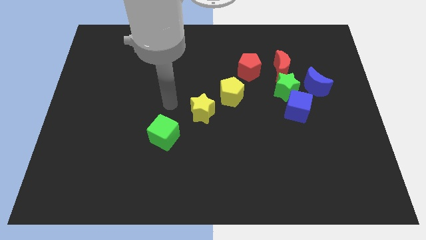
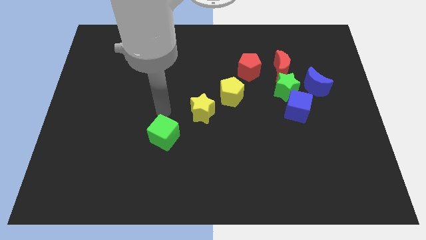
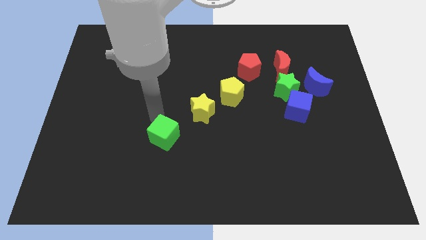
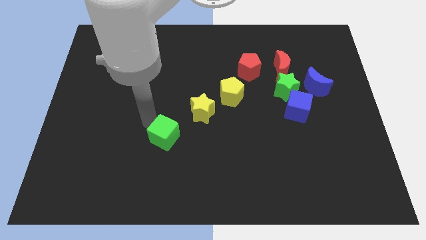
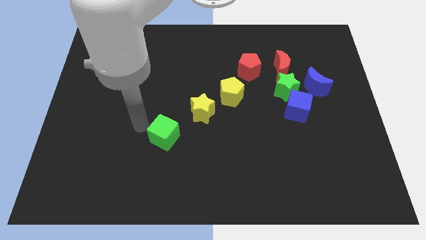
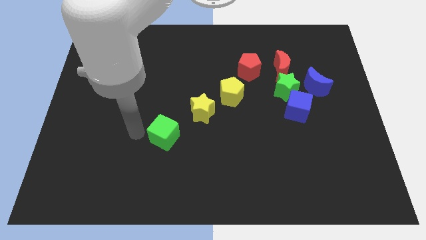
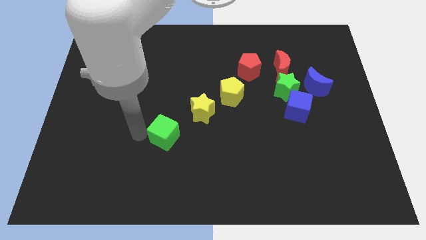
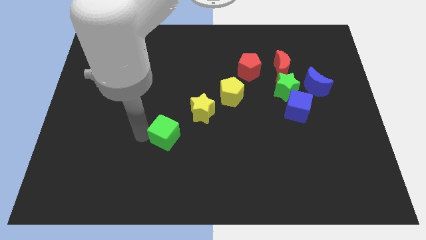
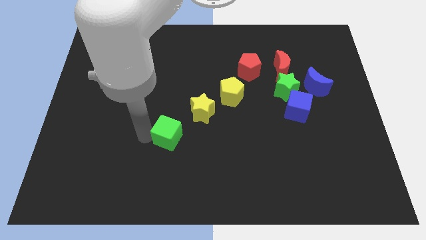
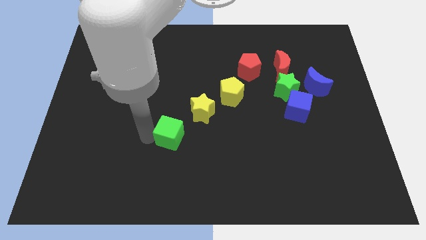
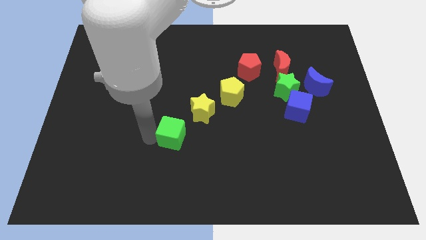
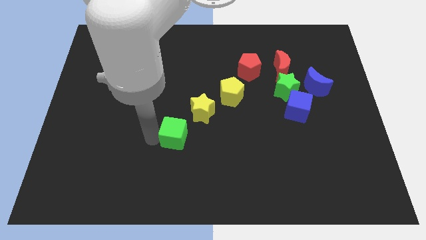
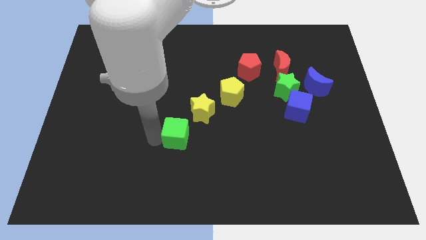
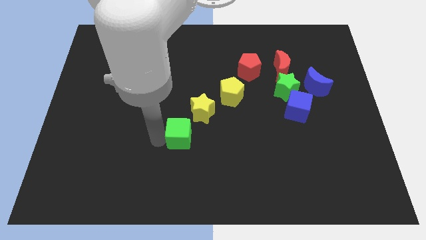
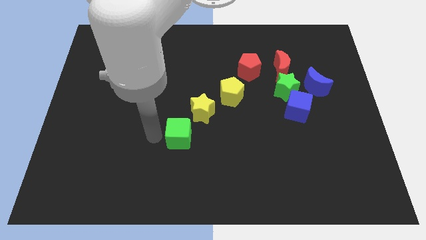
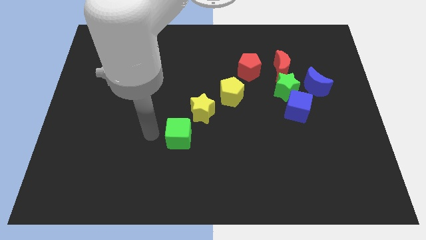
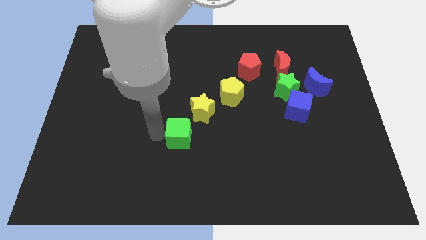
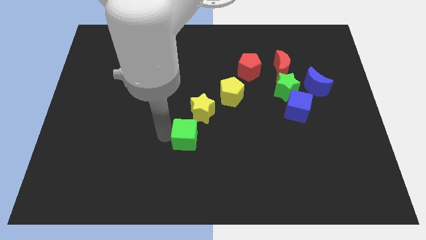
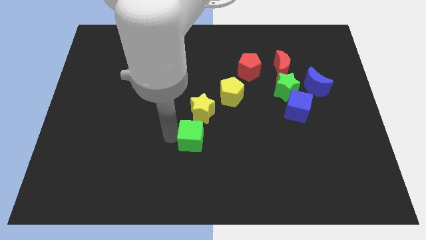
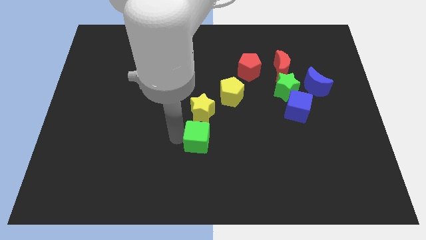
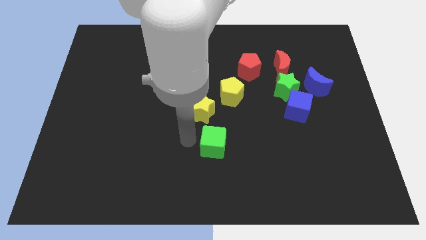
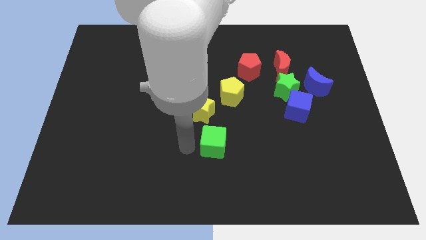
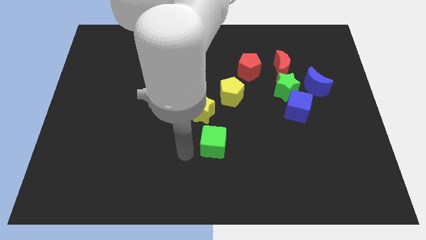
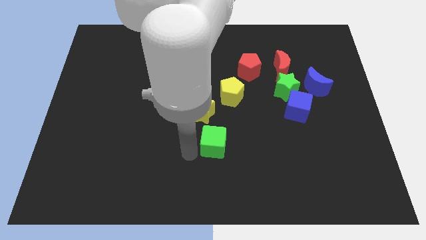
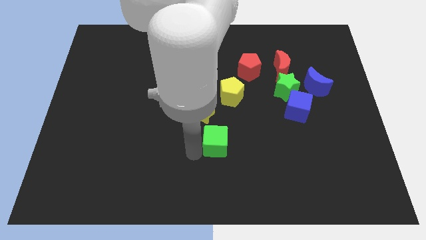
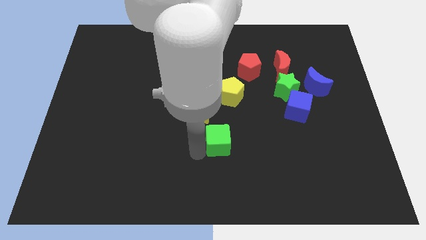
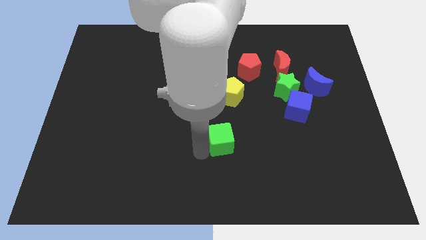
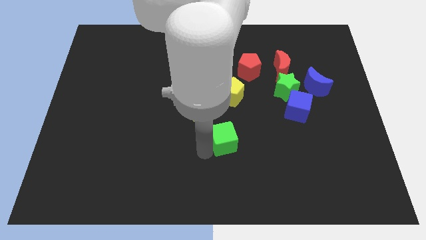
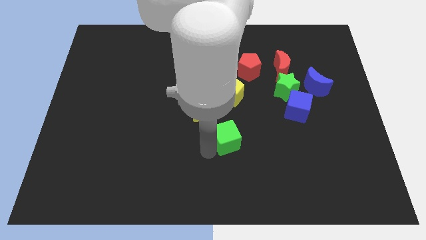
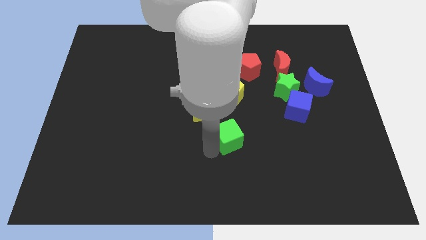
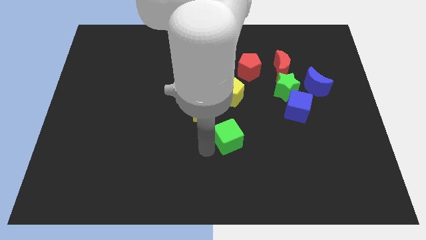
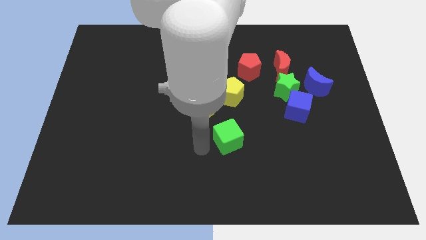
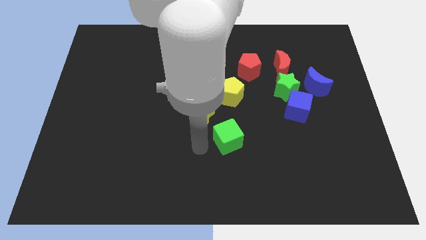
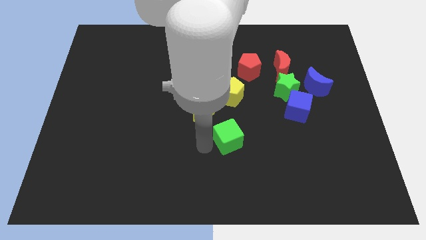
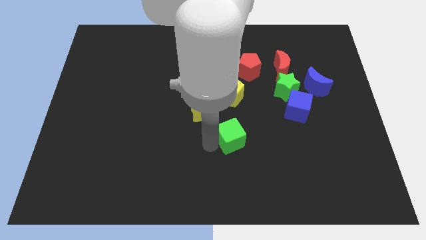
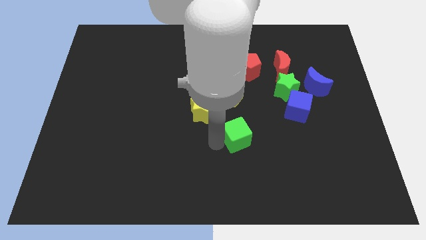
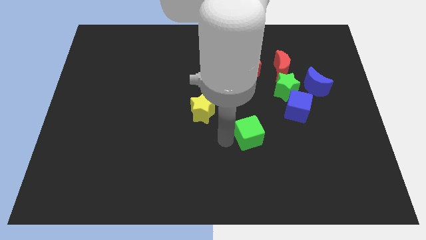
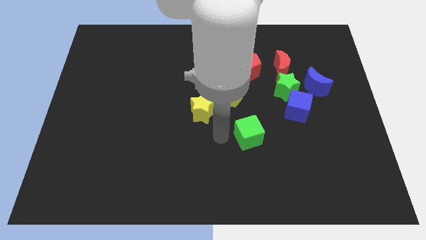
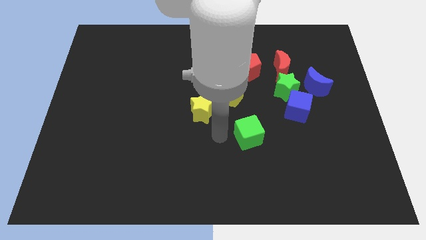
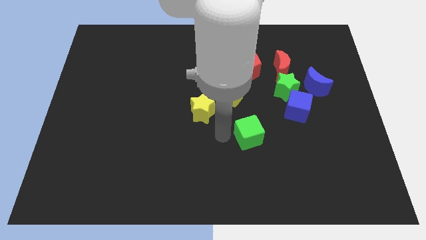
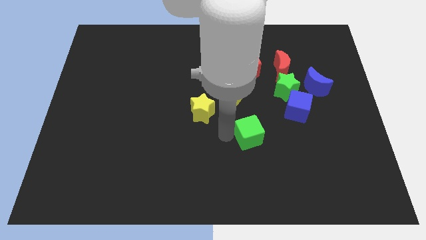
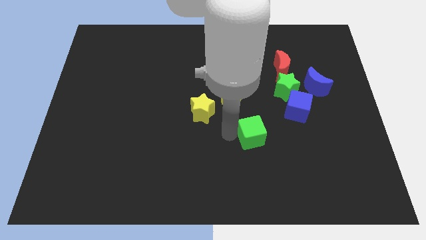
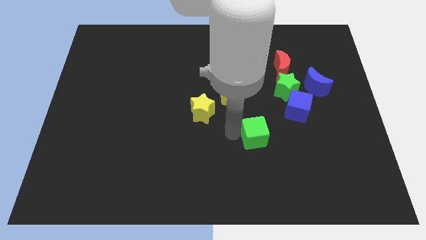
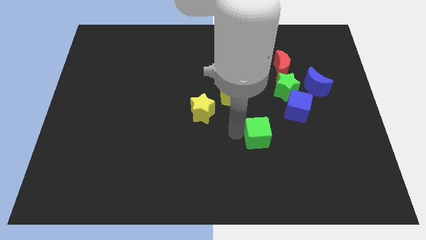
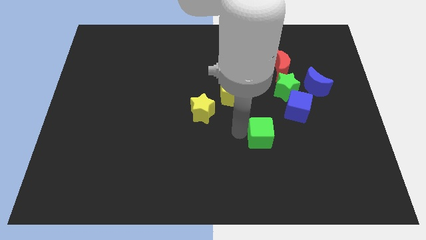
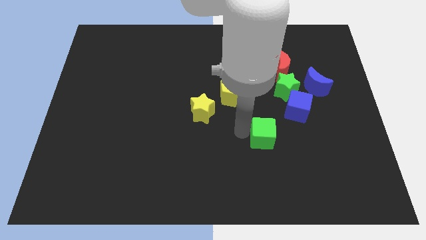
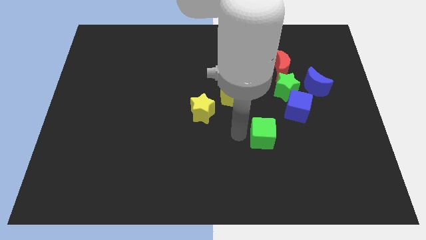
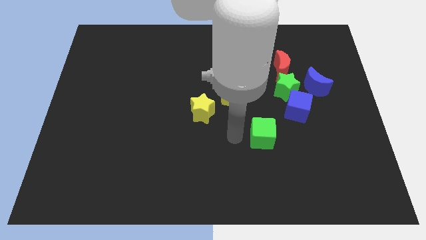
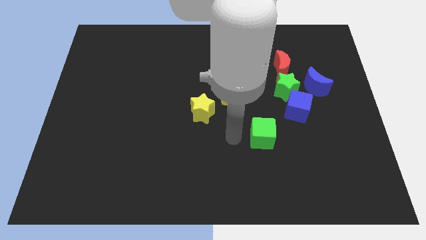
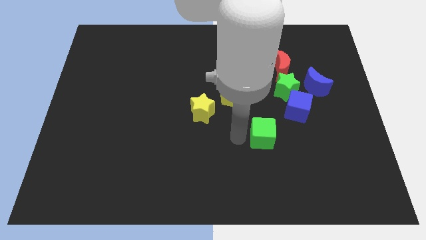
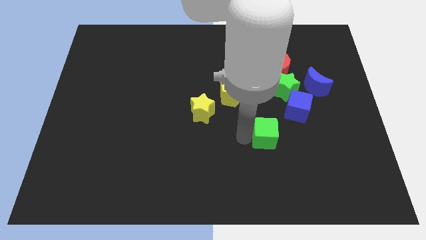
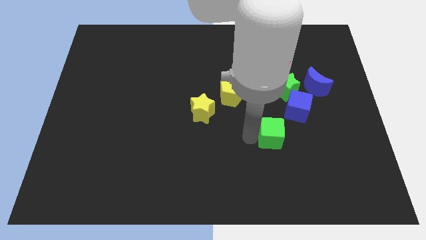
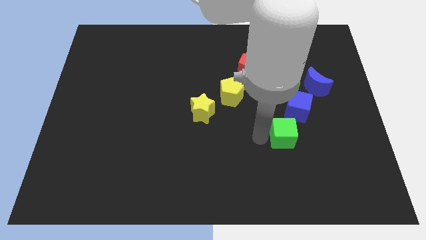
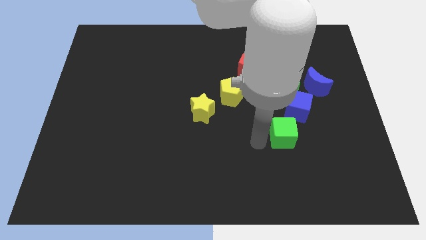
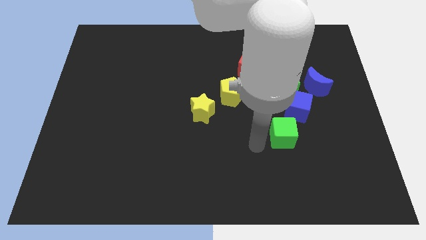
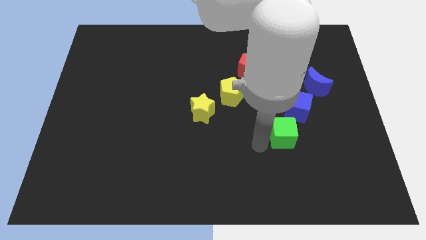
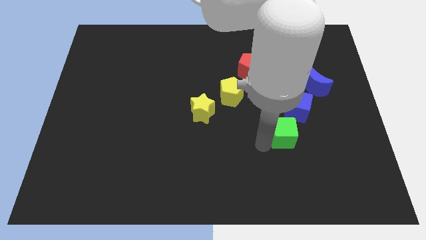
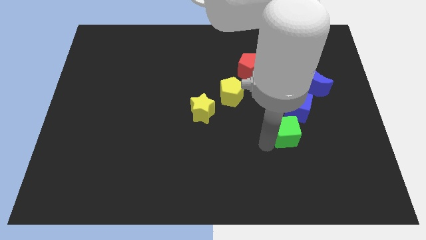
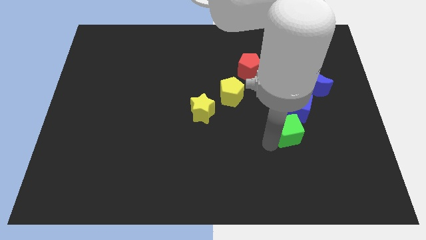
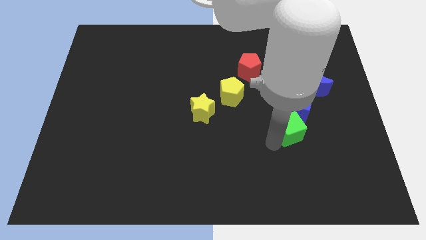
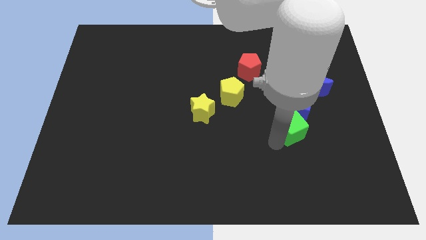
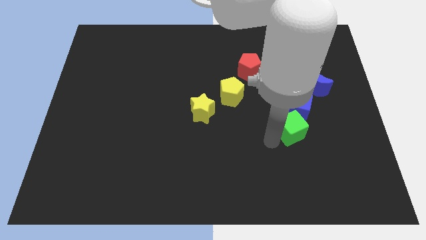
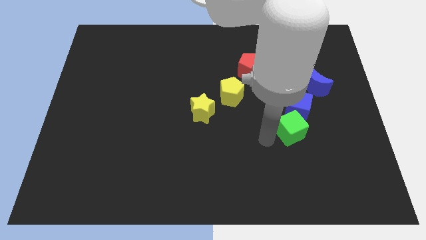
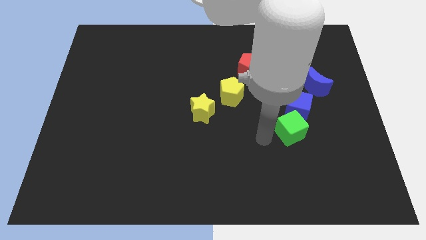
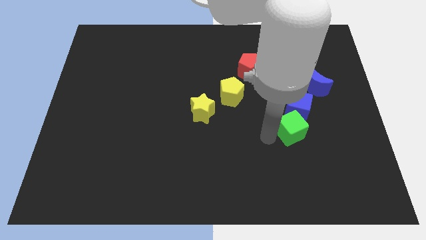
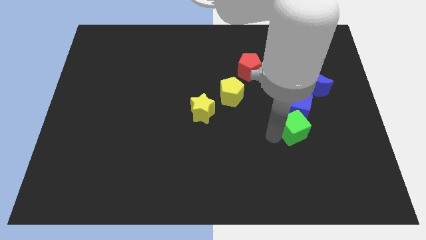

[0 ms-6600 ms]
move the green cube close to the blue cube

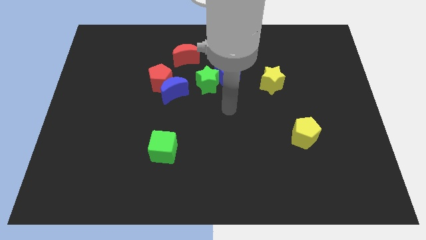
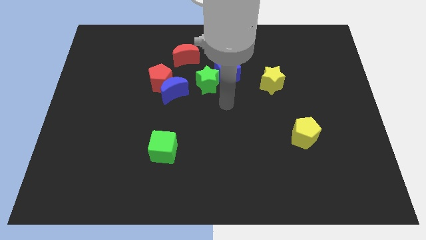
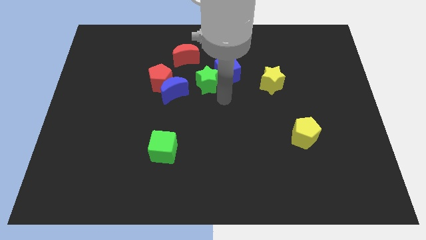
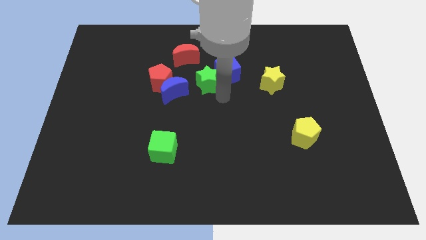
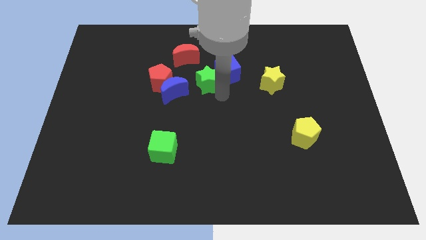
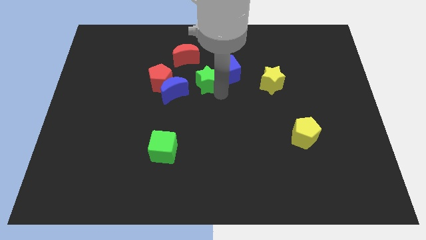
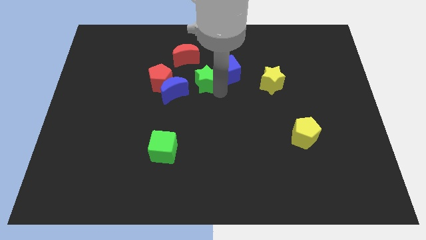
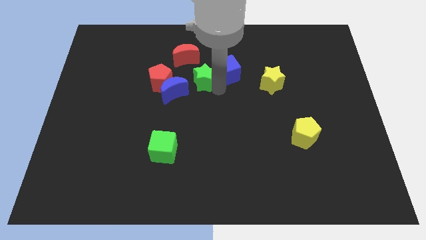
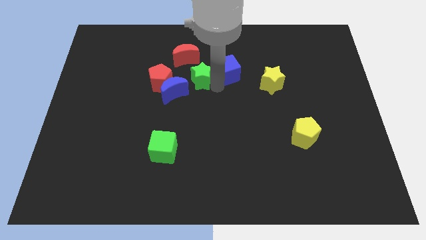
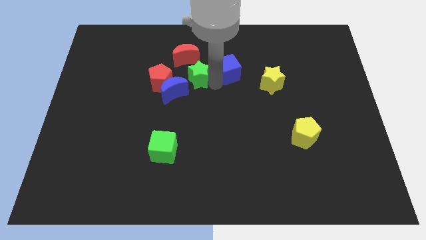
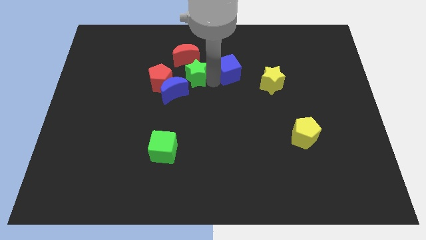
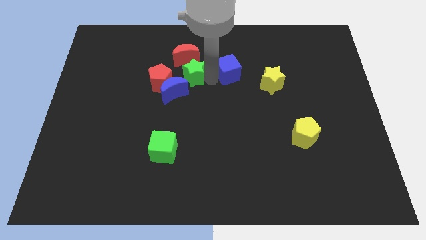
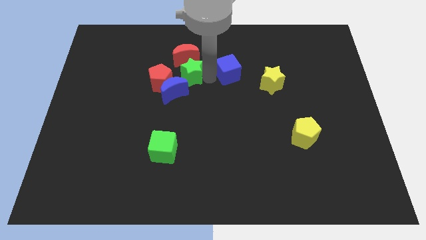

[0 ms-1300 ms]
push the green star close to the red moon
